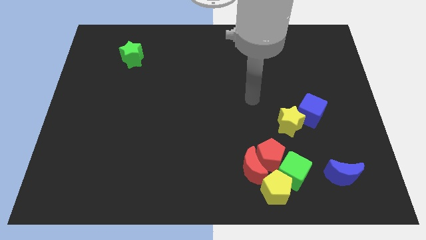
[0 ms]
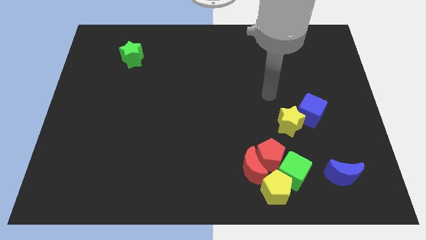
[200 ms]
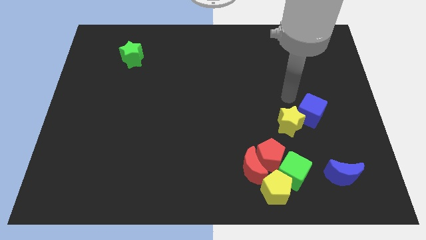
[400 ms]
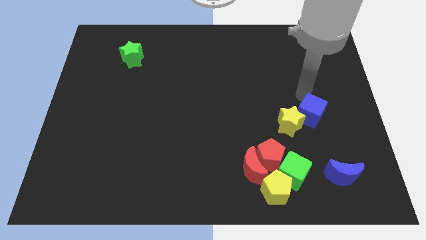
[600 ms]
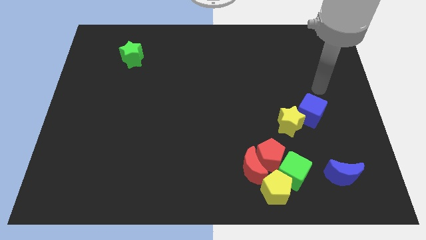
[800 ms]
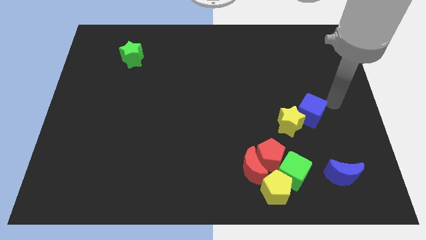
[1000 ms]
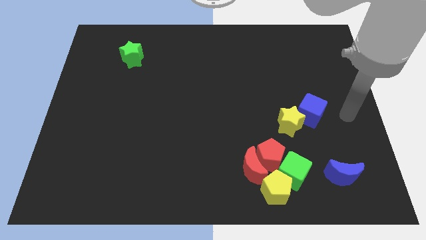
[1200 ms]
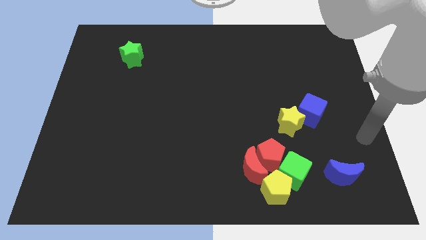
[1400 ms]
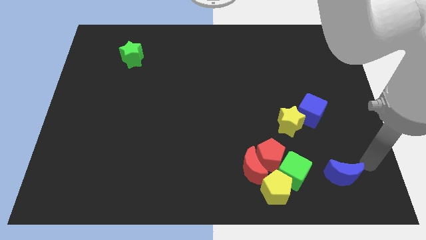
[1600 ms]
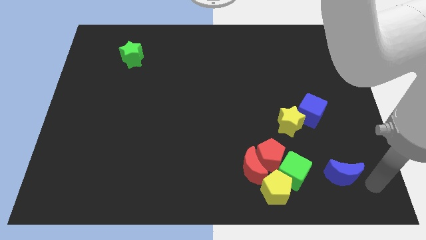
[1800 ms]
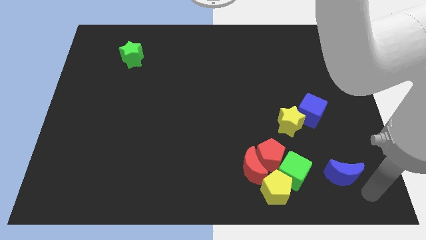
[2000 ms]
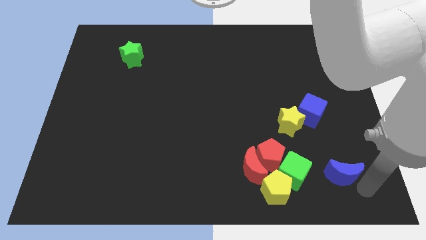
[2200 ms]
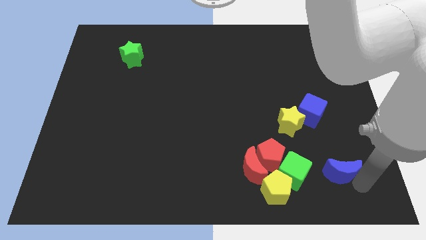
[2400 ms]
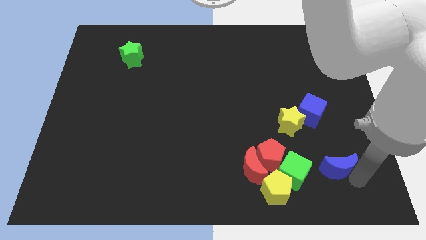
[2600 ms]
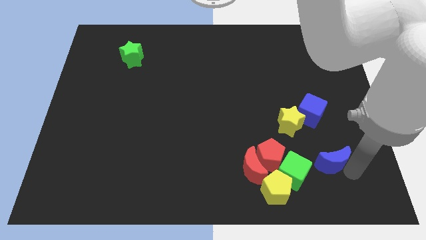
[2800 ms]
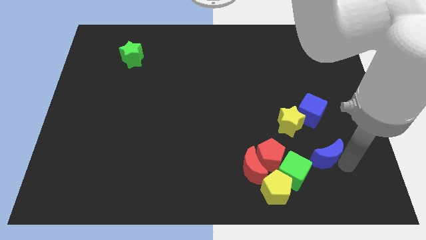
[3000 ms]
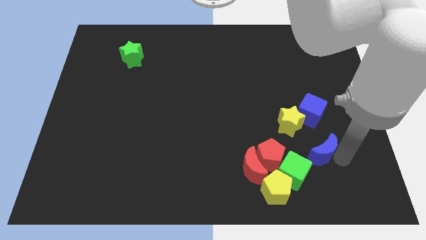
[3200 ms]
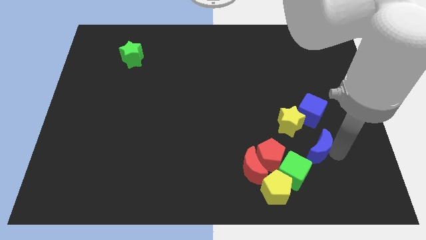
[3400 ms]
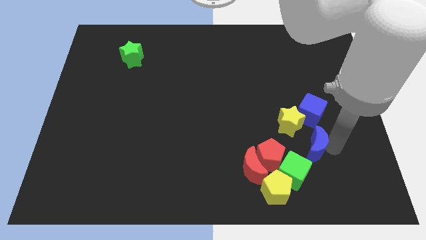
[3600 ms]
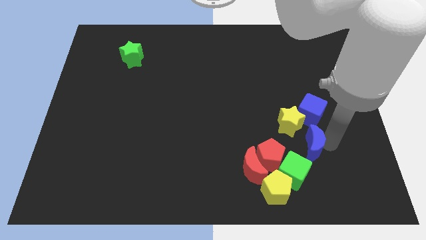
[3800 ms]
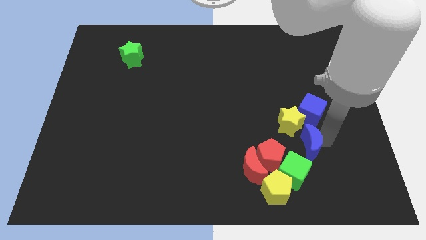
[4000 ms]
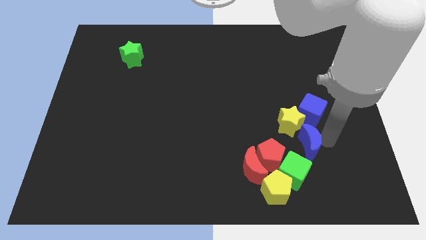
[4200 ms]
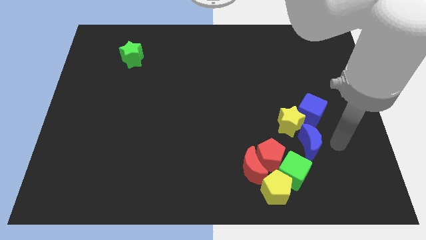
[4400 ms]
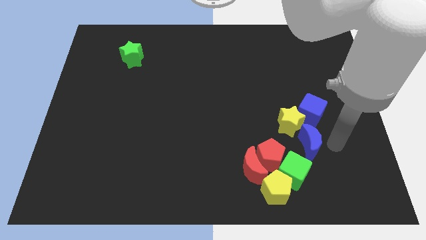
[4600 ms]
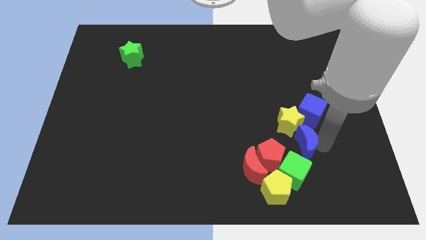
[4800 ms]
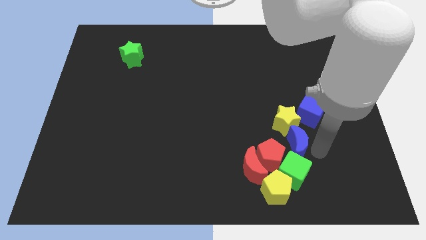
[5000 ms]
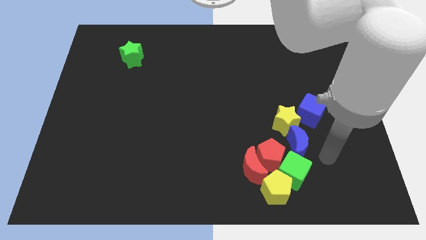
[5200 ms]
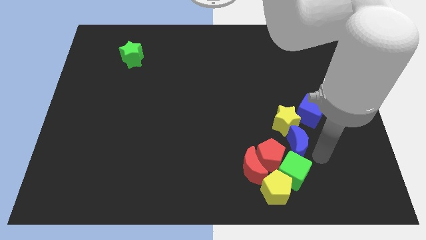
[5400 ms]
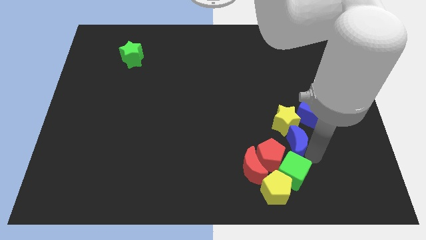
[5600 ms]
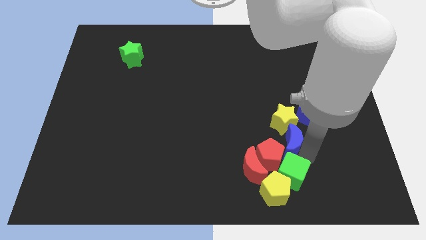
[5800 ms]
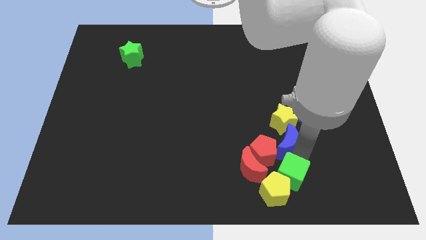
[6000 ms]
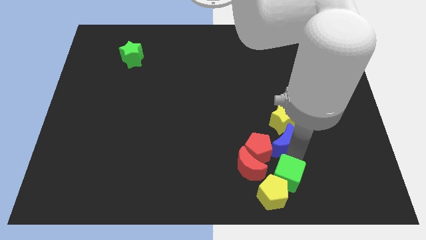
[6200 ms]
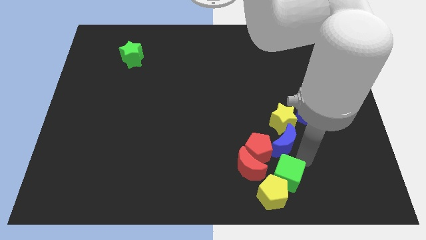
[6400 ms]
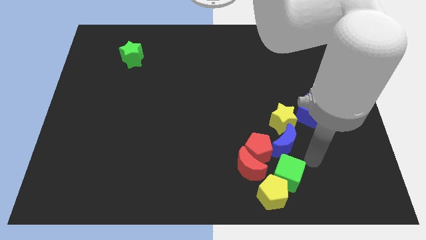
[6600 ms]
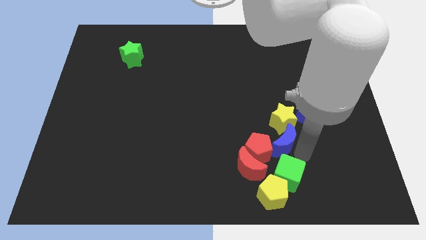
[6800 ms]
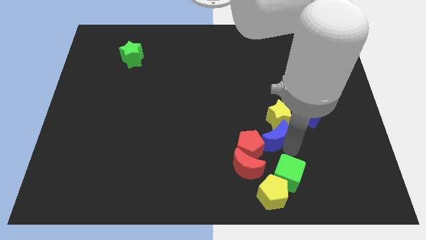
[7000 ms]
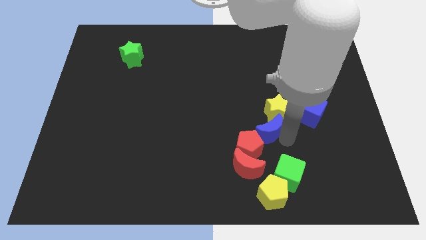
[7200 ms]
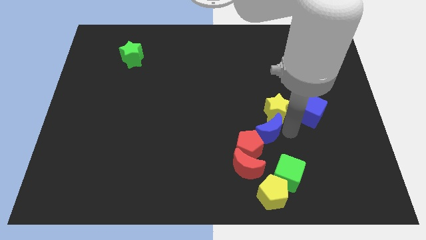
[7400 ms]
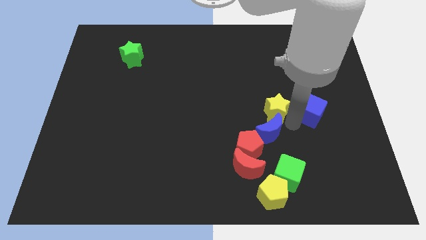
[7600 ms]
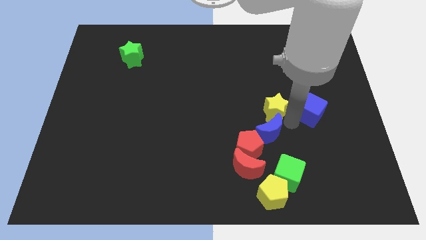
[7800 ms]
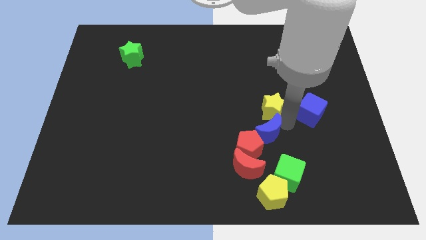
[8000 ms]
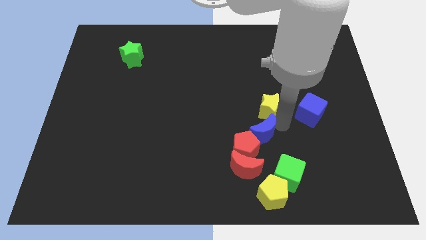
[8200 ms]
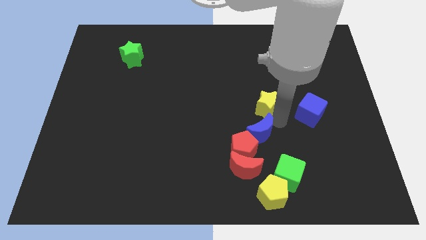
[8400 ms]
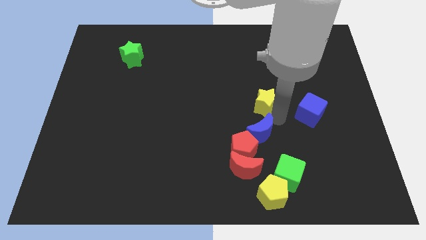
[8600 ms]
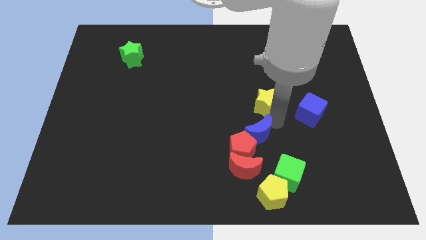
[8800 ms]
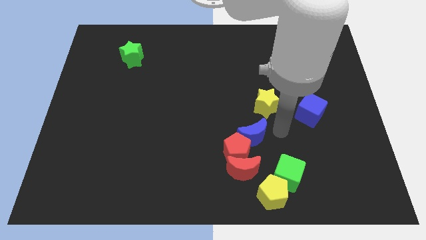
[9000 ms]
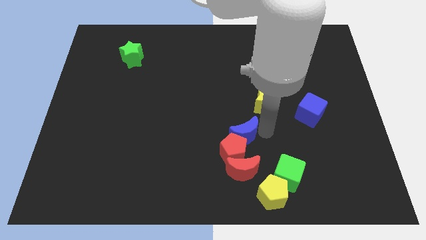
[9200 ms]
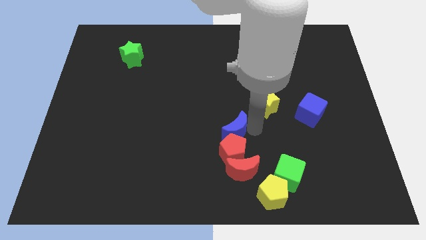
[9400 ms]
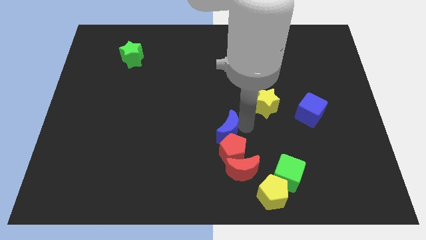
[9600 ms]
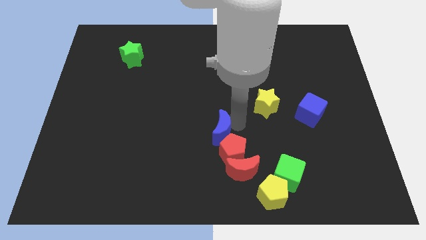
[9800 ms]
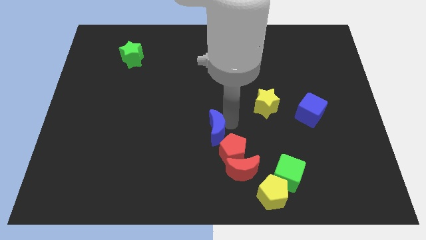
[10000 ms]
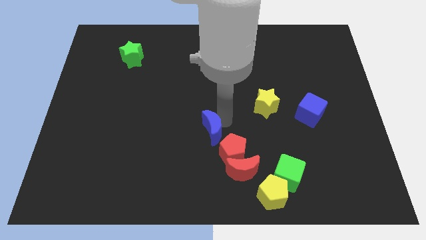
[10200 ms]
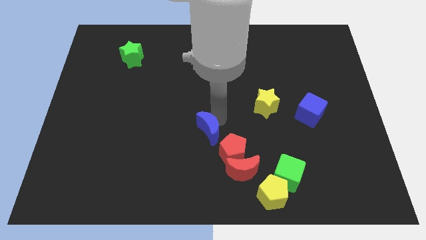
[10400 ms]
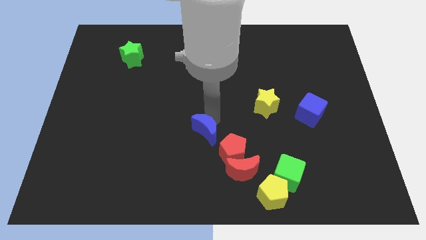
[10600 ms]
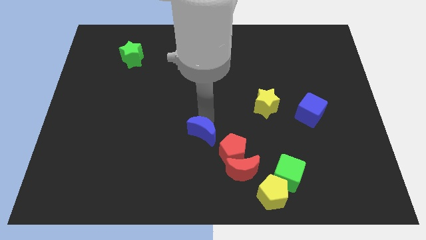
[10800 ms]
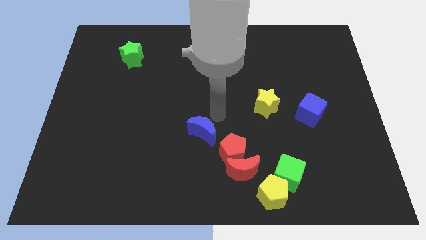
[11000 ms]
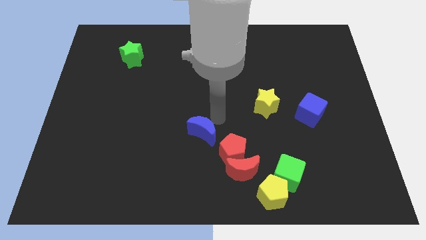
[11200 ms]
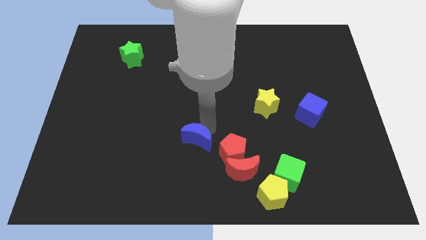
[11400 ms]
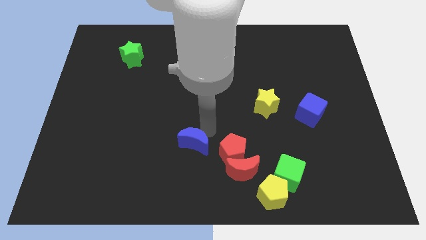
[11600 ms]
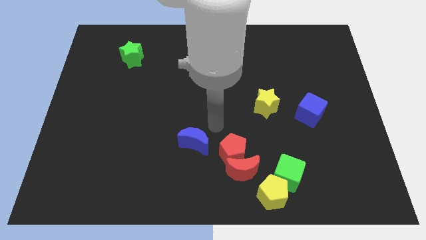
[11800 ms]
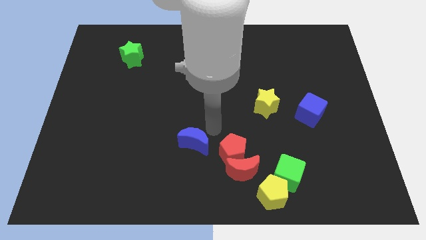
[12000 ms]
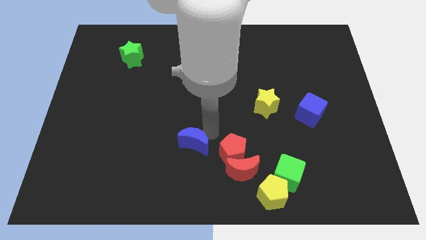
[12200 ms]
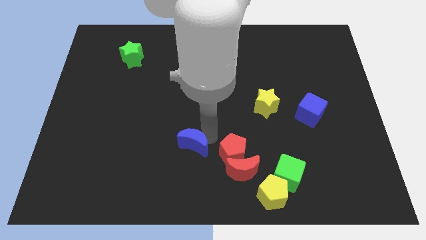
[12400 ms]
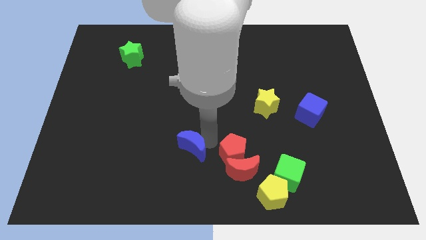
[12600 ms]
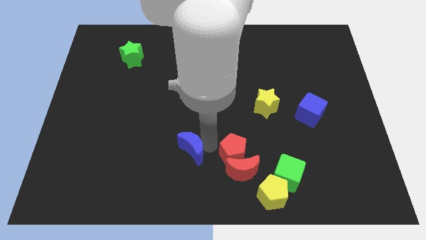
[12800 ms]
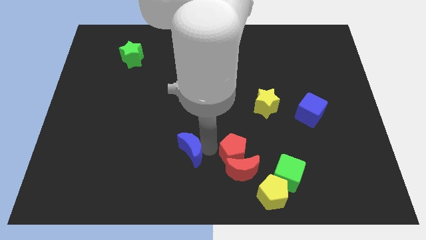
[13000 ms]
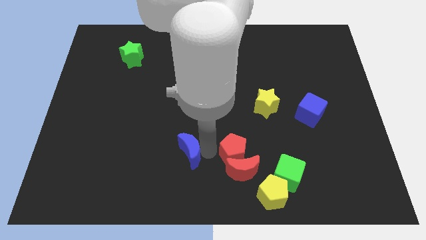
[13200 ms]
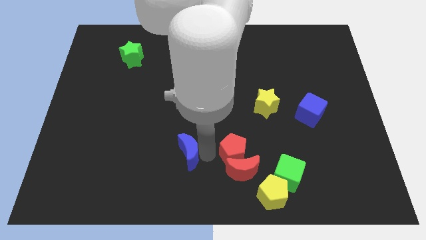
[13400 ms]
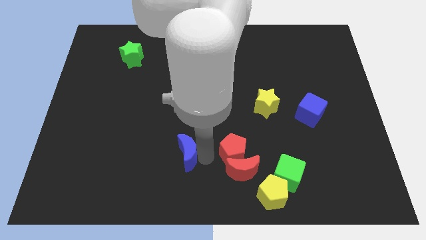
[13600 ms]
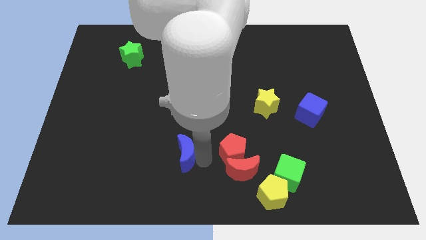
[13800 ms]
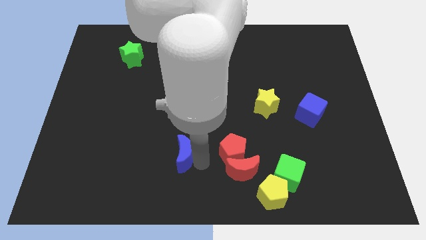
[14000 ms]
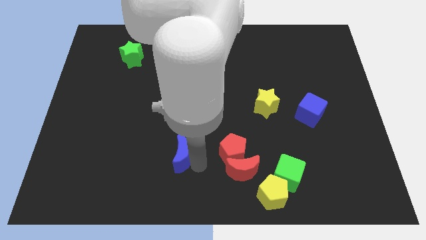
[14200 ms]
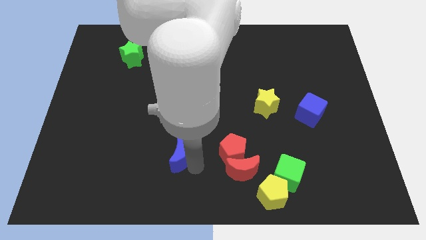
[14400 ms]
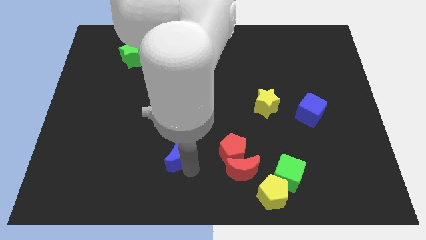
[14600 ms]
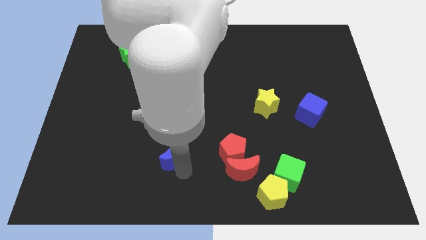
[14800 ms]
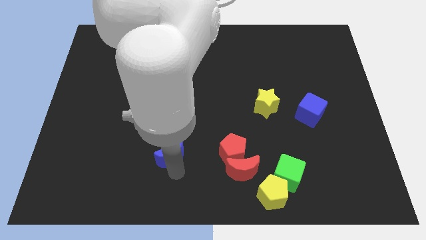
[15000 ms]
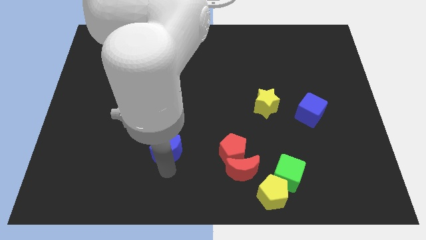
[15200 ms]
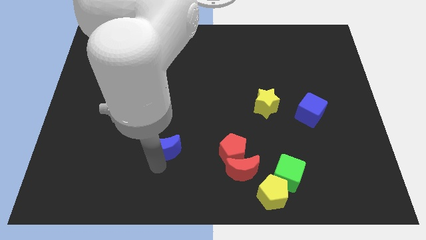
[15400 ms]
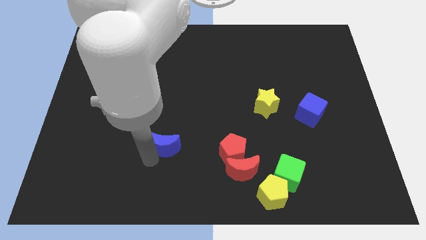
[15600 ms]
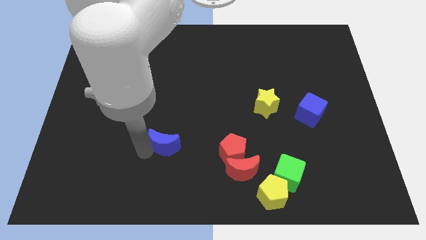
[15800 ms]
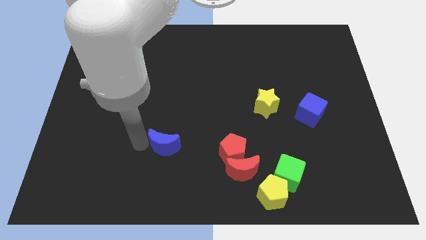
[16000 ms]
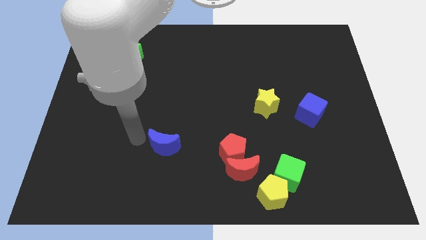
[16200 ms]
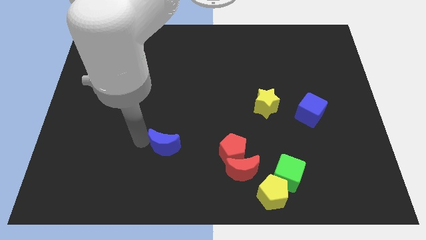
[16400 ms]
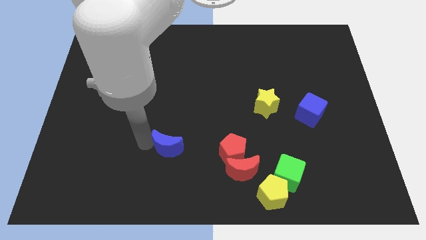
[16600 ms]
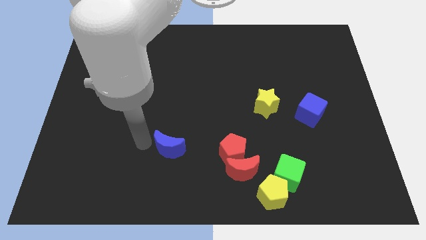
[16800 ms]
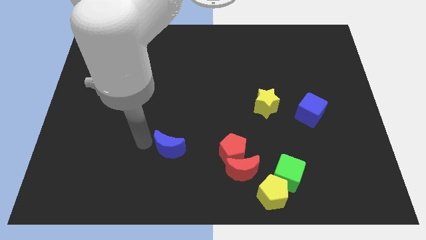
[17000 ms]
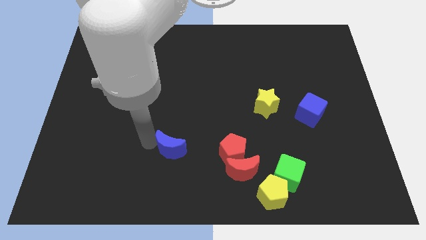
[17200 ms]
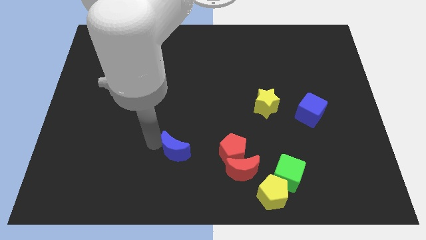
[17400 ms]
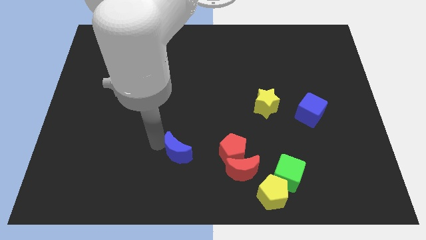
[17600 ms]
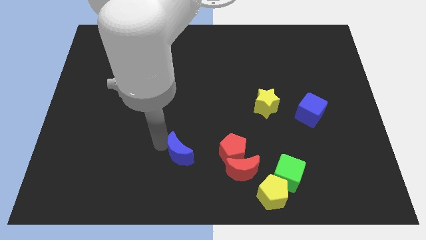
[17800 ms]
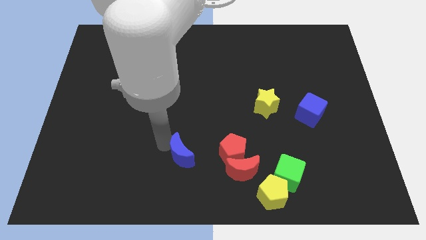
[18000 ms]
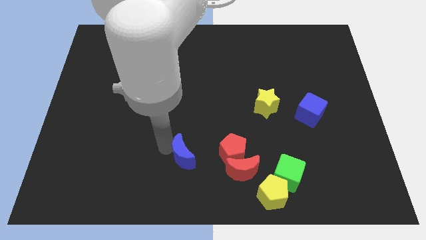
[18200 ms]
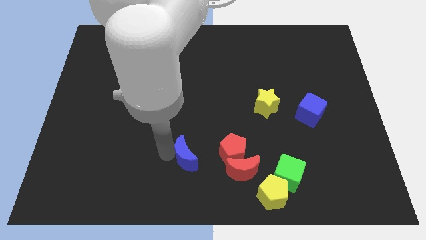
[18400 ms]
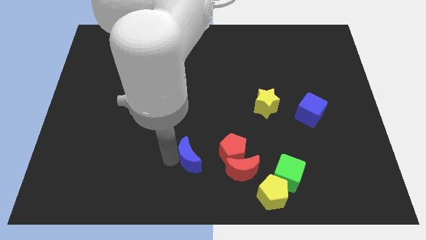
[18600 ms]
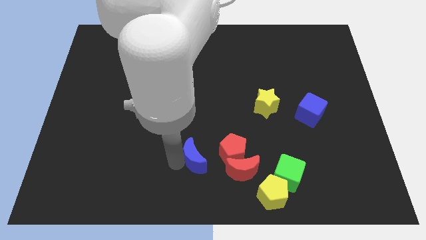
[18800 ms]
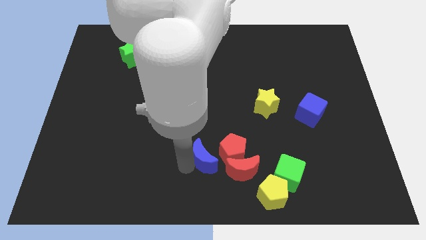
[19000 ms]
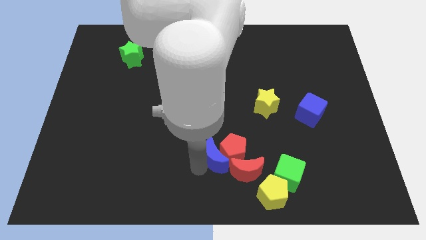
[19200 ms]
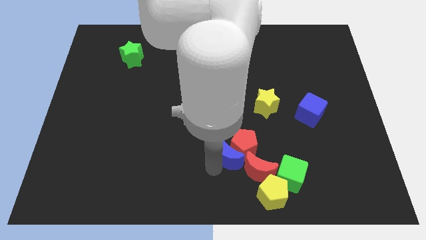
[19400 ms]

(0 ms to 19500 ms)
slide the blue moon to the left of the red pentagon
